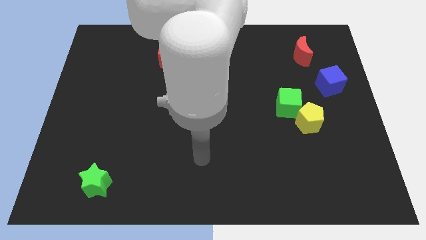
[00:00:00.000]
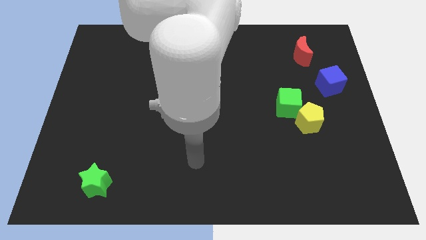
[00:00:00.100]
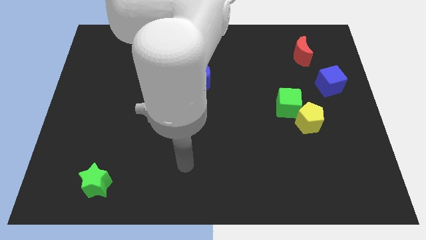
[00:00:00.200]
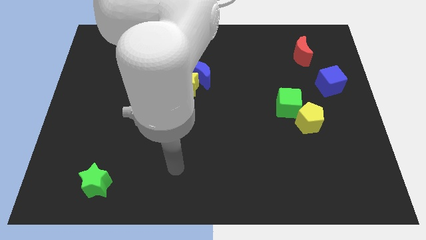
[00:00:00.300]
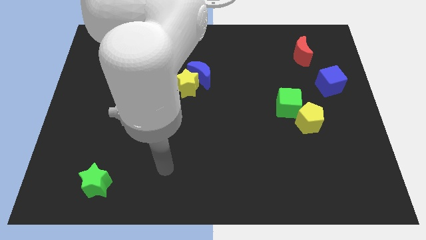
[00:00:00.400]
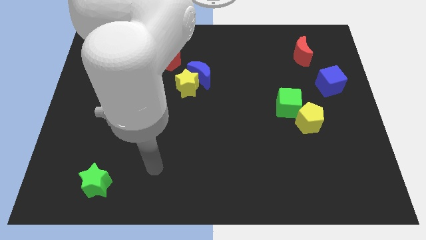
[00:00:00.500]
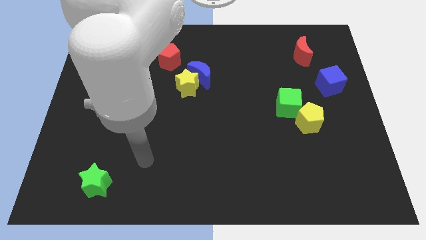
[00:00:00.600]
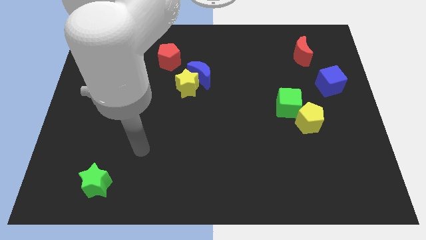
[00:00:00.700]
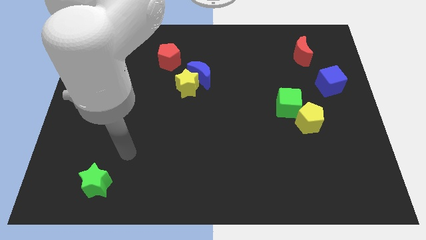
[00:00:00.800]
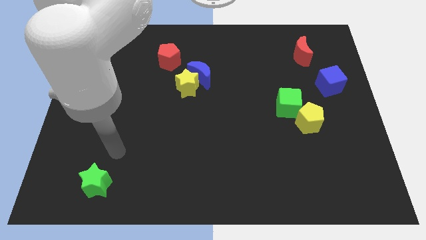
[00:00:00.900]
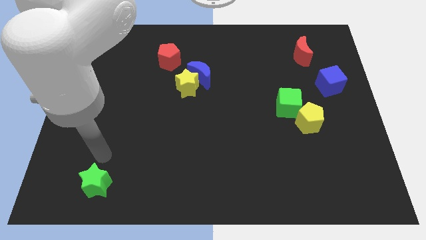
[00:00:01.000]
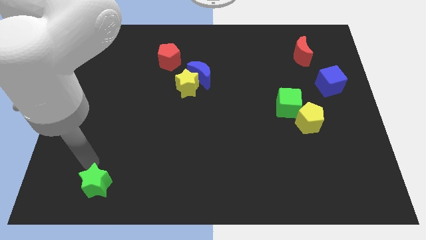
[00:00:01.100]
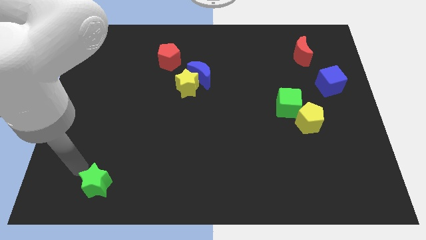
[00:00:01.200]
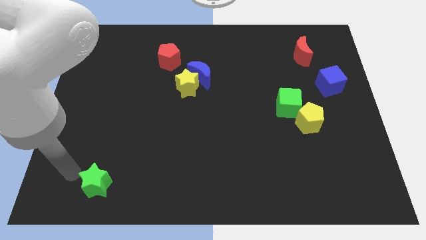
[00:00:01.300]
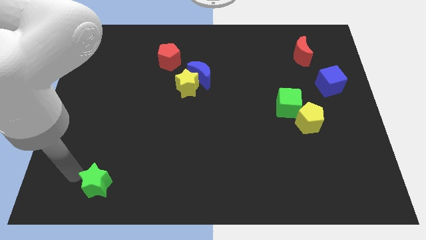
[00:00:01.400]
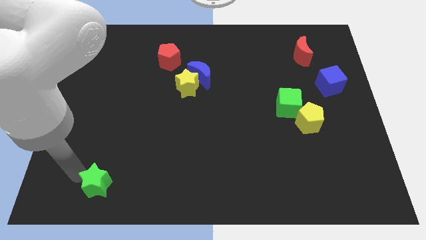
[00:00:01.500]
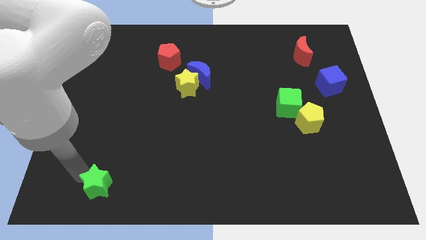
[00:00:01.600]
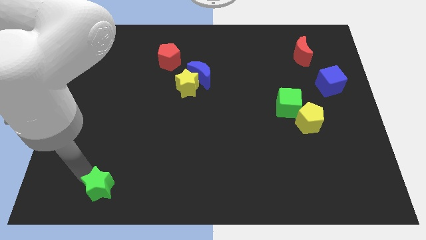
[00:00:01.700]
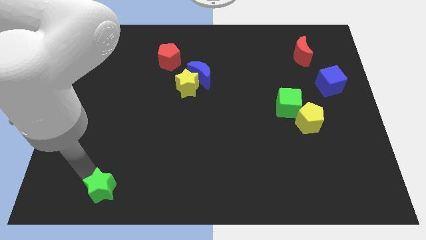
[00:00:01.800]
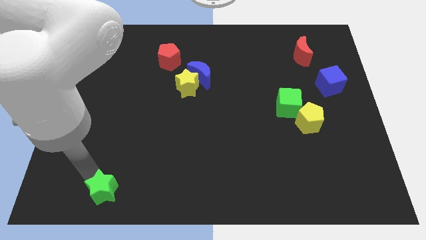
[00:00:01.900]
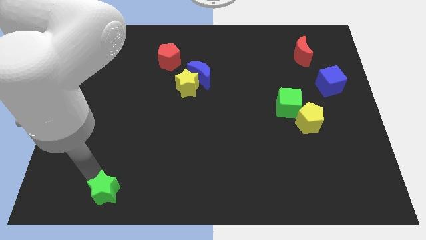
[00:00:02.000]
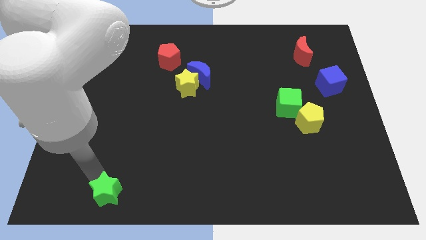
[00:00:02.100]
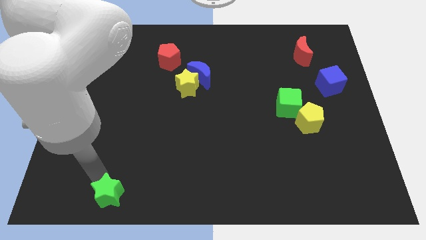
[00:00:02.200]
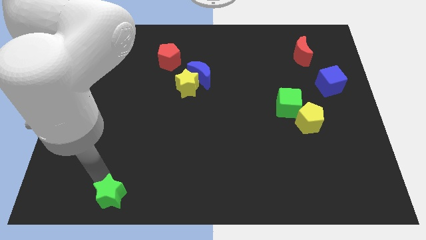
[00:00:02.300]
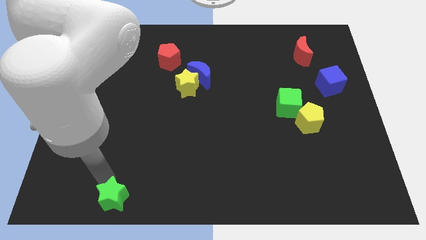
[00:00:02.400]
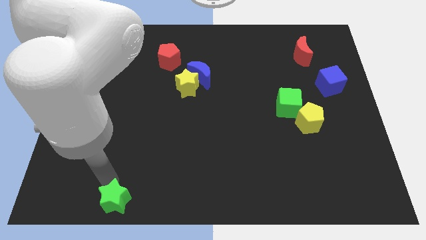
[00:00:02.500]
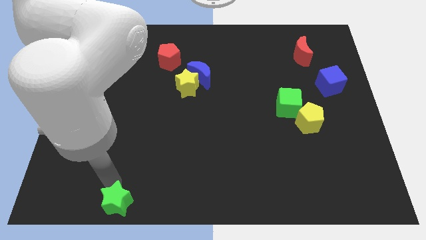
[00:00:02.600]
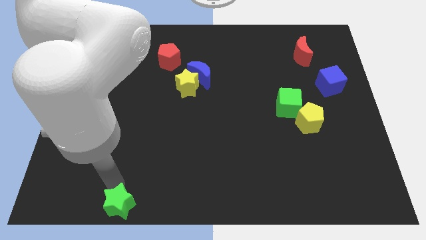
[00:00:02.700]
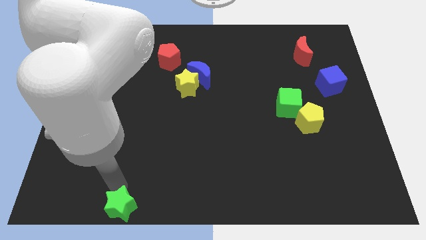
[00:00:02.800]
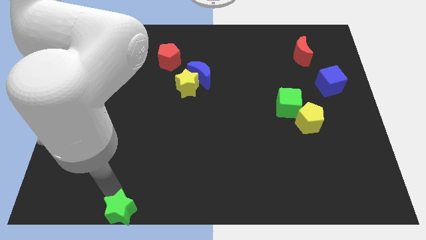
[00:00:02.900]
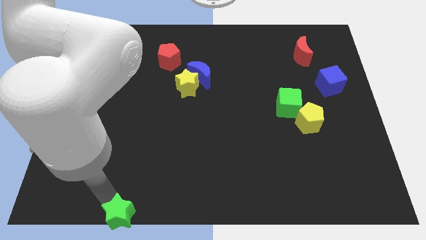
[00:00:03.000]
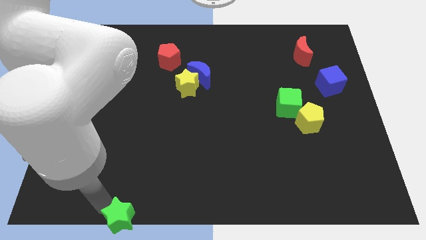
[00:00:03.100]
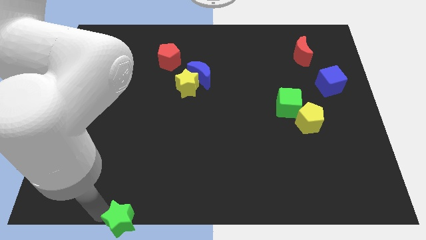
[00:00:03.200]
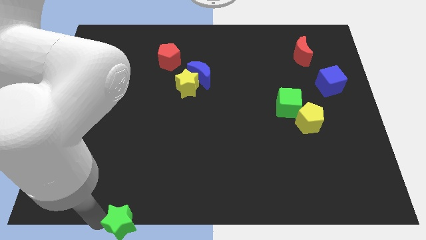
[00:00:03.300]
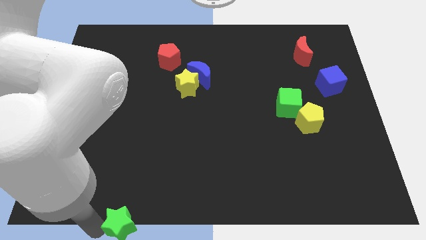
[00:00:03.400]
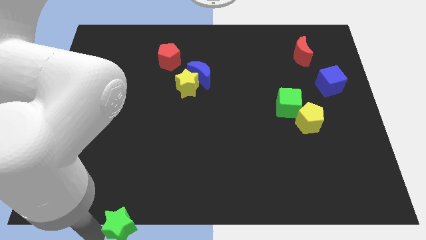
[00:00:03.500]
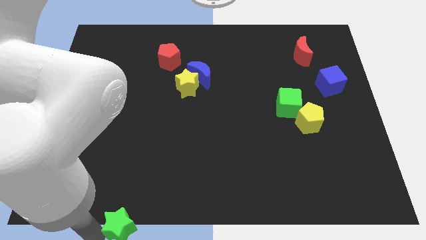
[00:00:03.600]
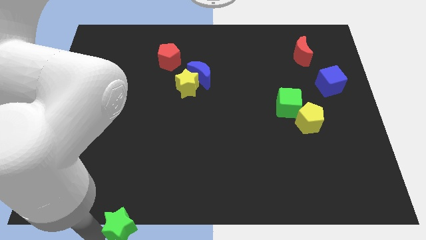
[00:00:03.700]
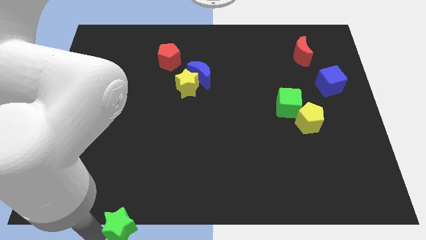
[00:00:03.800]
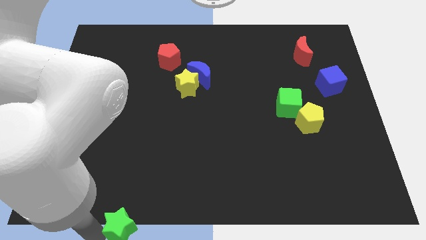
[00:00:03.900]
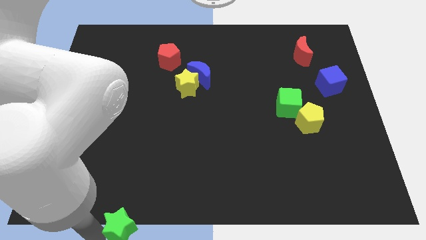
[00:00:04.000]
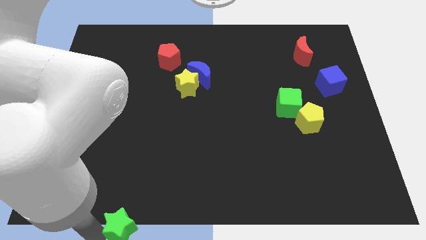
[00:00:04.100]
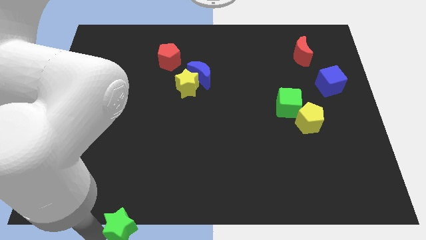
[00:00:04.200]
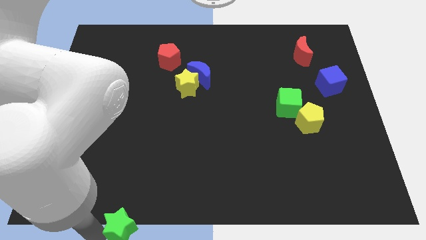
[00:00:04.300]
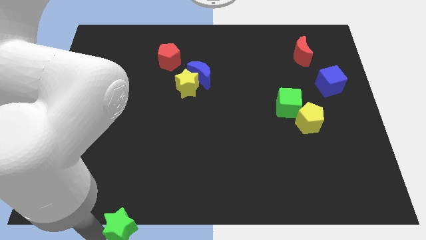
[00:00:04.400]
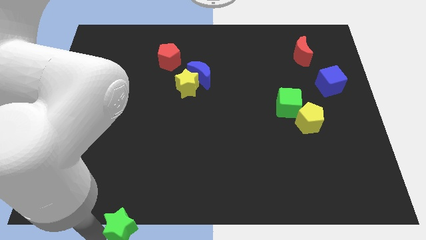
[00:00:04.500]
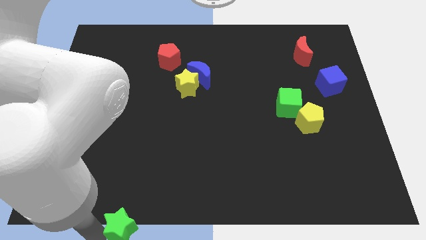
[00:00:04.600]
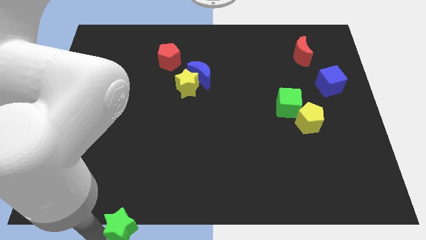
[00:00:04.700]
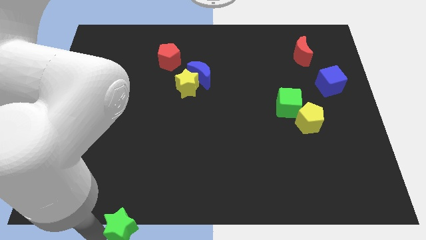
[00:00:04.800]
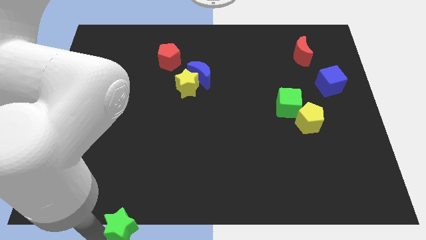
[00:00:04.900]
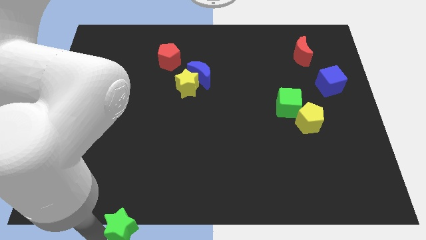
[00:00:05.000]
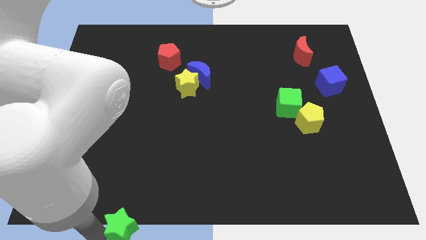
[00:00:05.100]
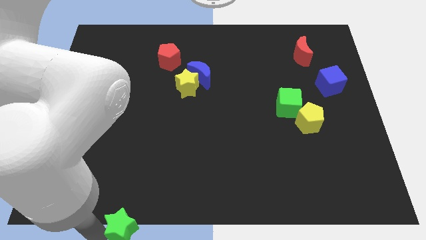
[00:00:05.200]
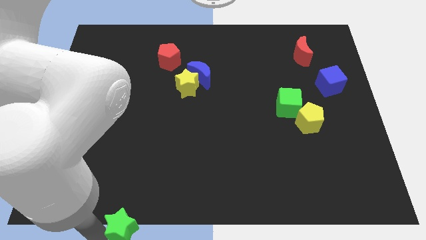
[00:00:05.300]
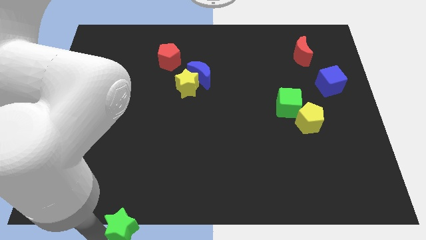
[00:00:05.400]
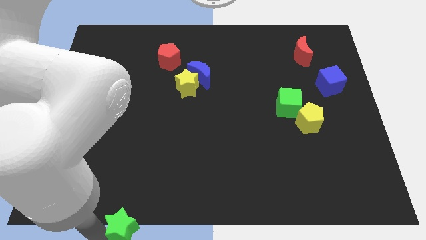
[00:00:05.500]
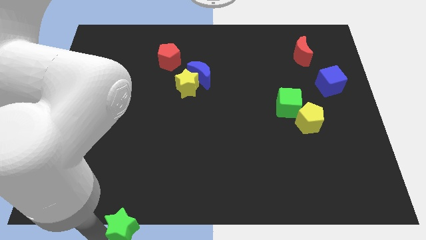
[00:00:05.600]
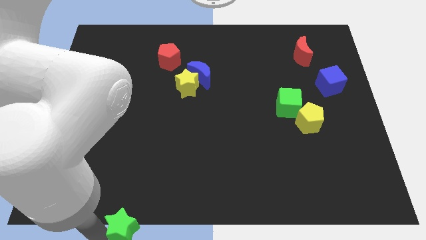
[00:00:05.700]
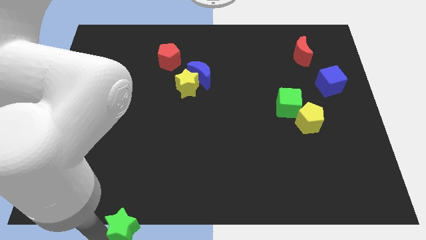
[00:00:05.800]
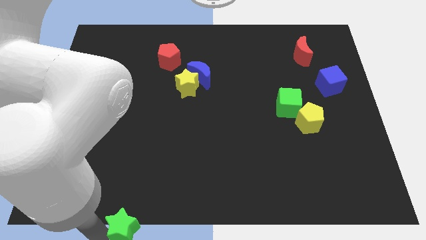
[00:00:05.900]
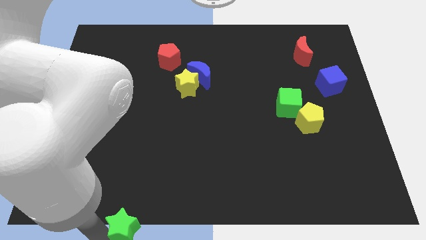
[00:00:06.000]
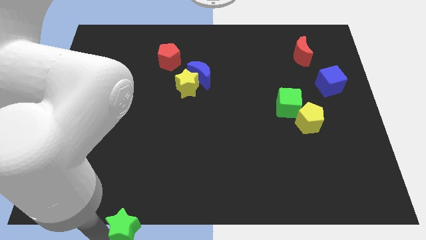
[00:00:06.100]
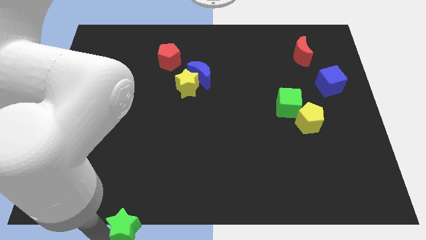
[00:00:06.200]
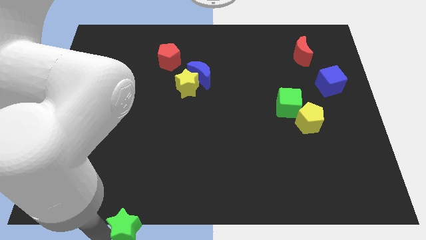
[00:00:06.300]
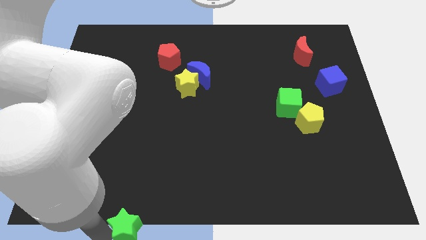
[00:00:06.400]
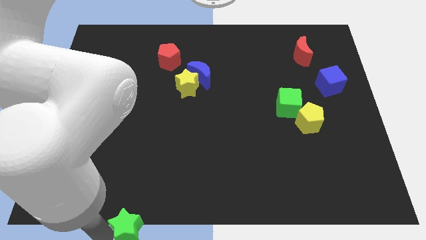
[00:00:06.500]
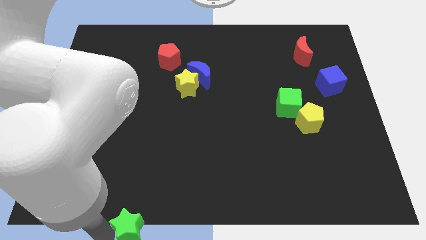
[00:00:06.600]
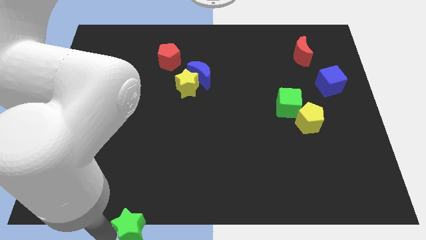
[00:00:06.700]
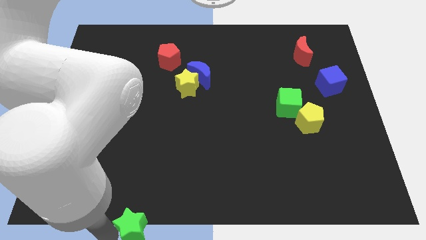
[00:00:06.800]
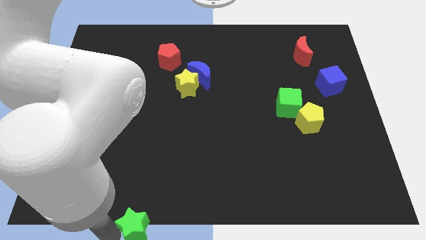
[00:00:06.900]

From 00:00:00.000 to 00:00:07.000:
push the green star to the bottom

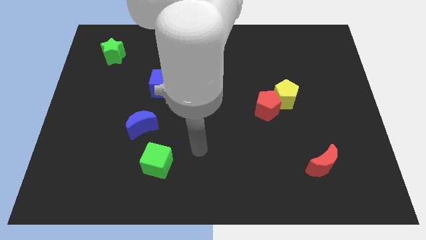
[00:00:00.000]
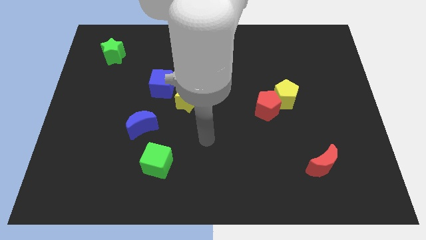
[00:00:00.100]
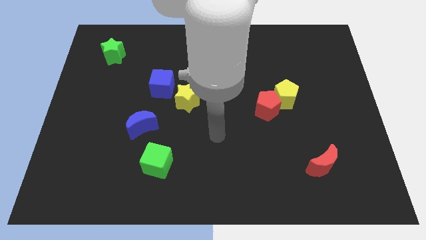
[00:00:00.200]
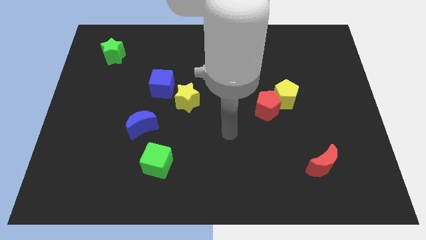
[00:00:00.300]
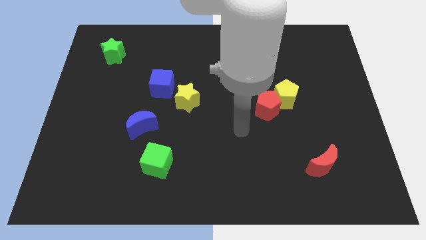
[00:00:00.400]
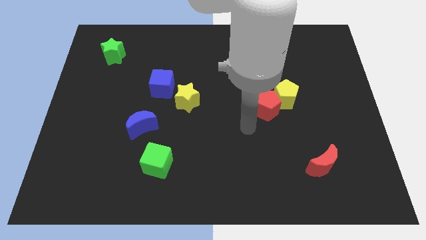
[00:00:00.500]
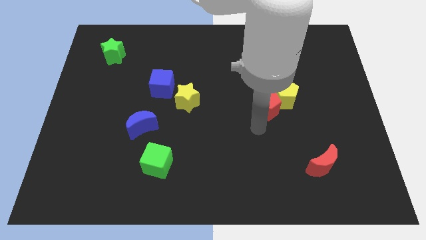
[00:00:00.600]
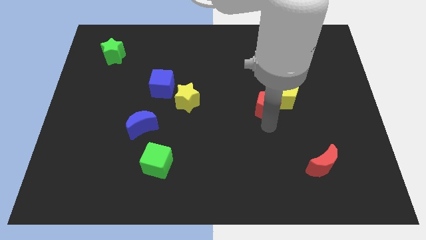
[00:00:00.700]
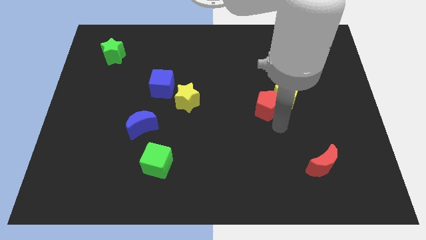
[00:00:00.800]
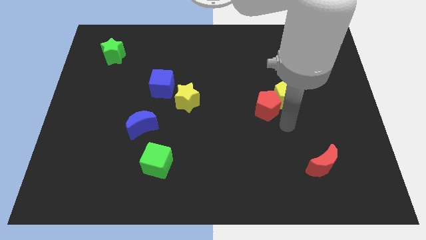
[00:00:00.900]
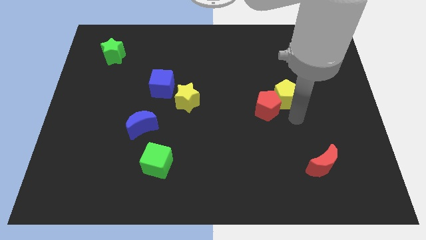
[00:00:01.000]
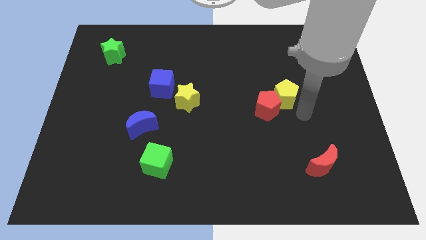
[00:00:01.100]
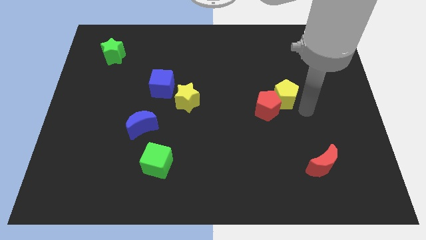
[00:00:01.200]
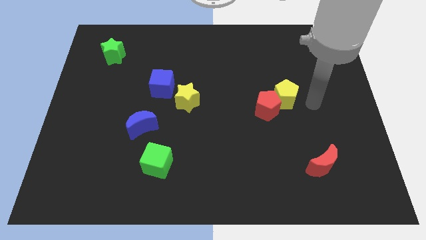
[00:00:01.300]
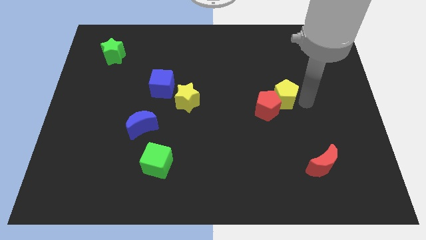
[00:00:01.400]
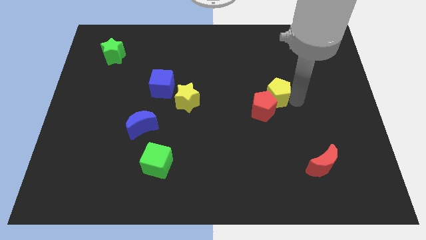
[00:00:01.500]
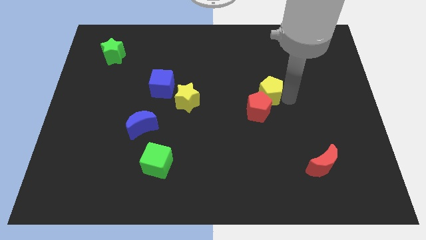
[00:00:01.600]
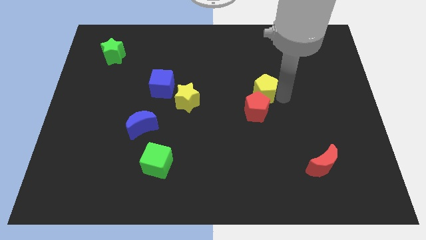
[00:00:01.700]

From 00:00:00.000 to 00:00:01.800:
put the yellow pentagon to the middle of the board
